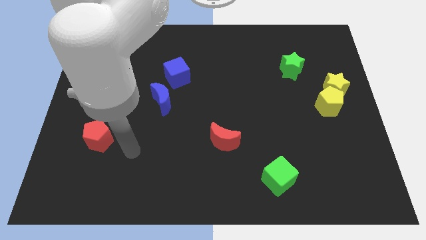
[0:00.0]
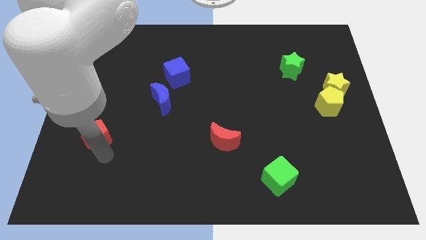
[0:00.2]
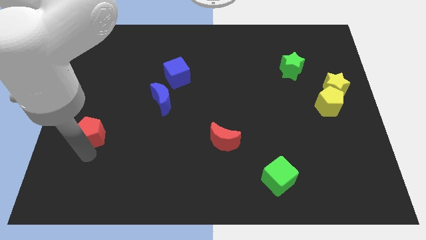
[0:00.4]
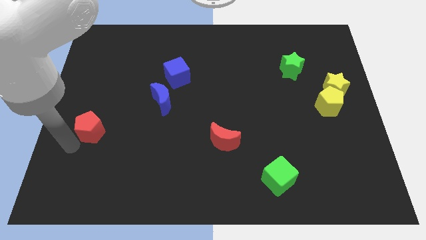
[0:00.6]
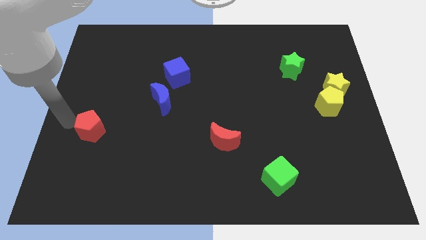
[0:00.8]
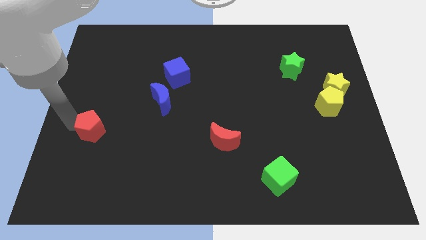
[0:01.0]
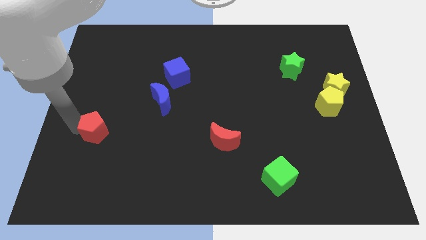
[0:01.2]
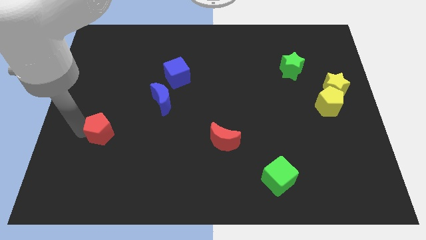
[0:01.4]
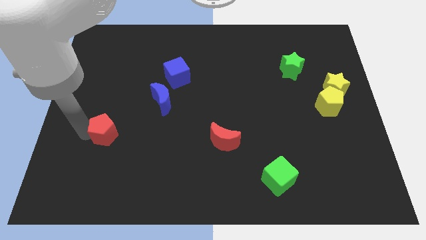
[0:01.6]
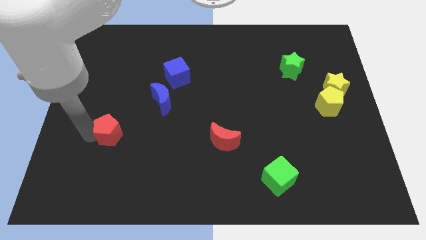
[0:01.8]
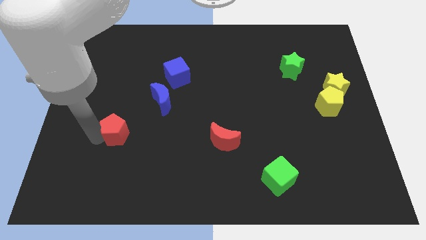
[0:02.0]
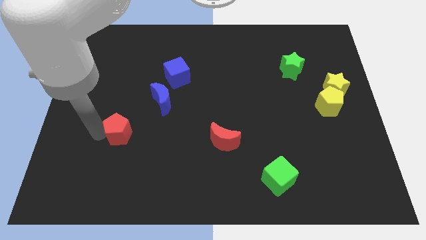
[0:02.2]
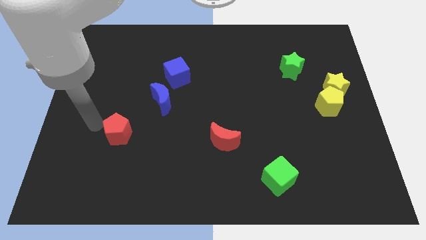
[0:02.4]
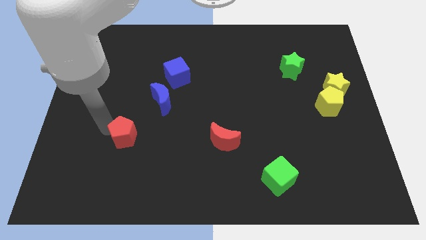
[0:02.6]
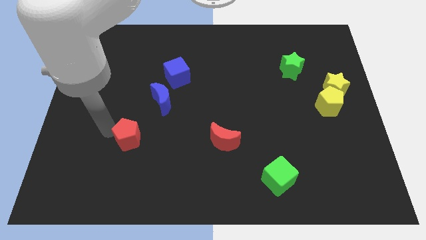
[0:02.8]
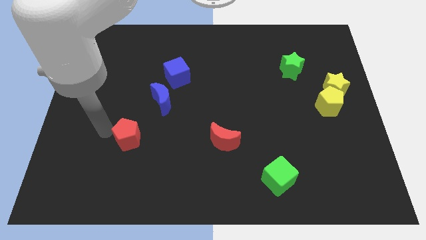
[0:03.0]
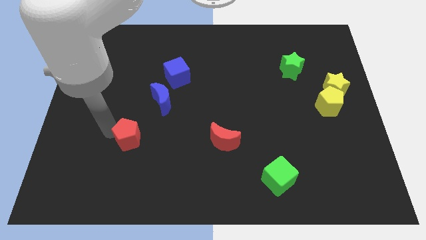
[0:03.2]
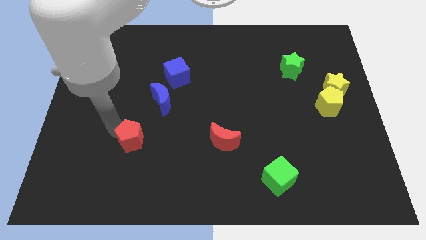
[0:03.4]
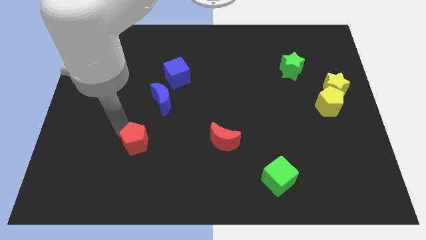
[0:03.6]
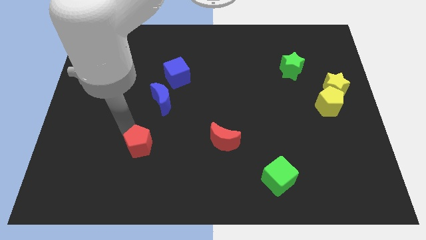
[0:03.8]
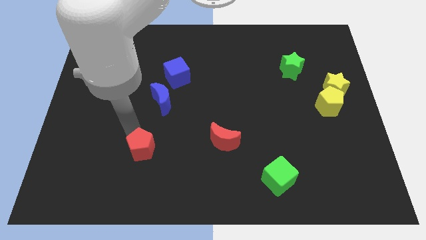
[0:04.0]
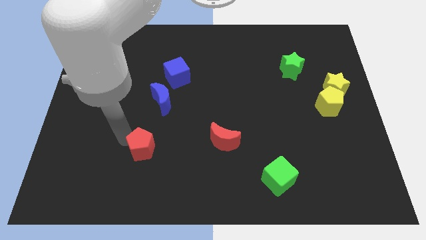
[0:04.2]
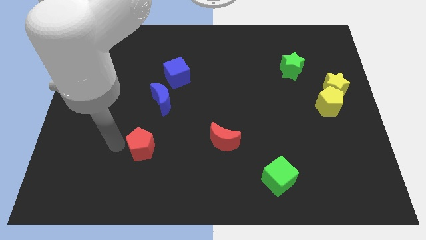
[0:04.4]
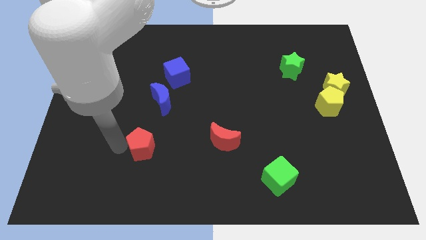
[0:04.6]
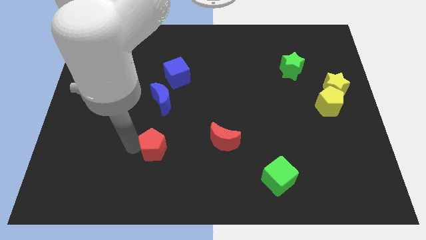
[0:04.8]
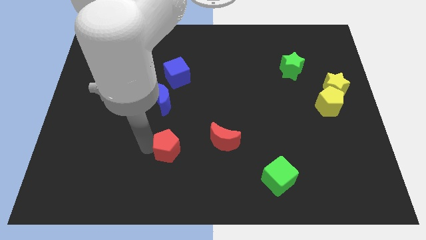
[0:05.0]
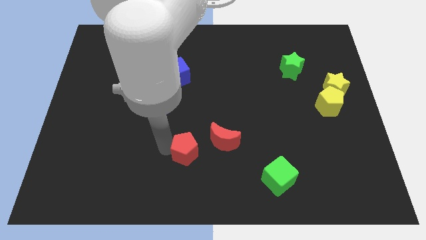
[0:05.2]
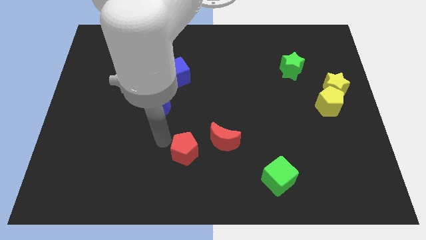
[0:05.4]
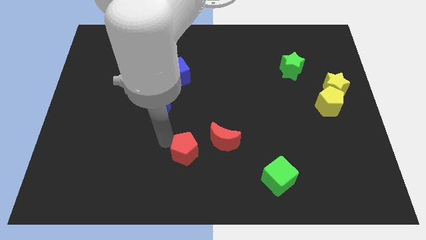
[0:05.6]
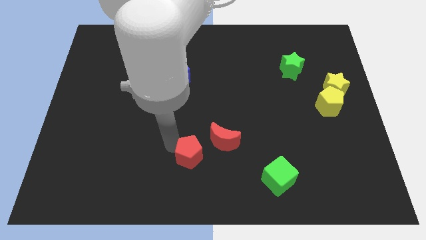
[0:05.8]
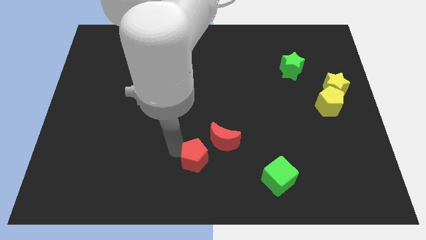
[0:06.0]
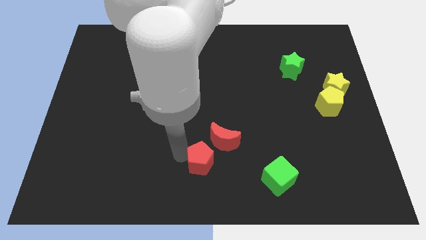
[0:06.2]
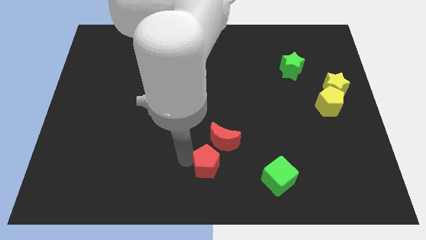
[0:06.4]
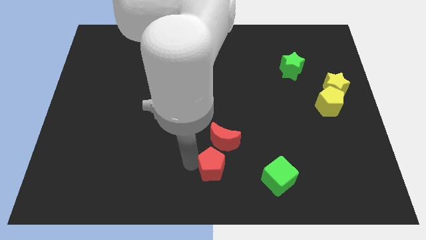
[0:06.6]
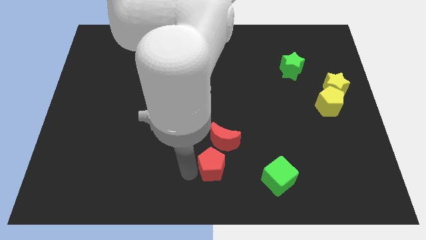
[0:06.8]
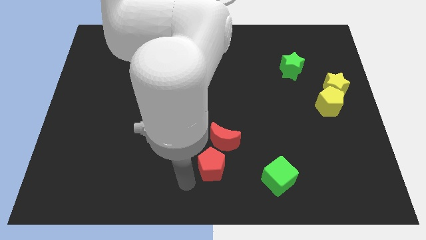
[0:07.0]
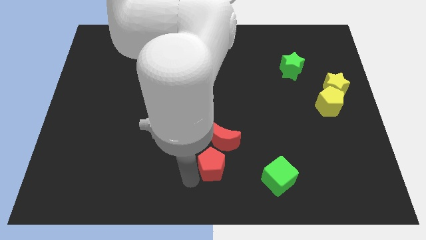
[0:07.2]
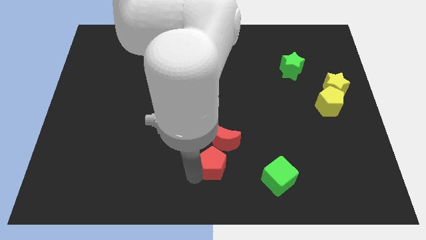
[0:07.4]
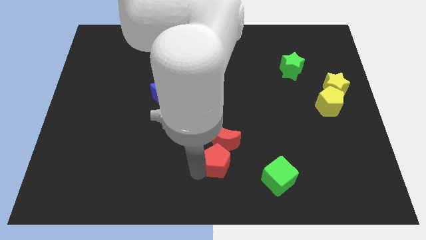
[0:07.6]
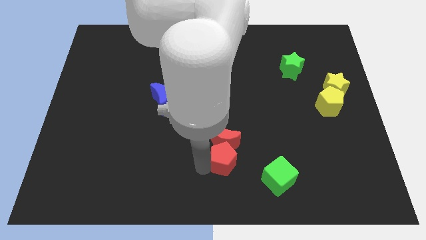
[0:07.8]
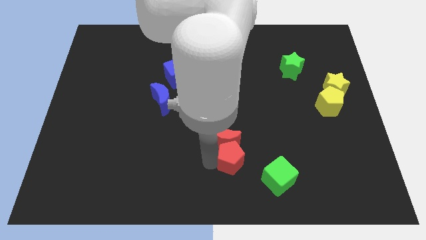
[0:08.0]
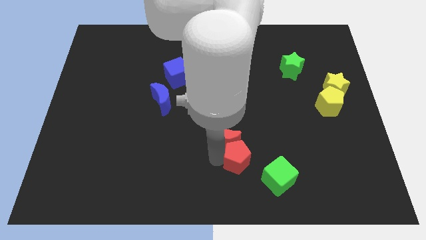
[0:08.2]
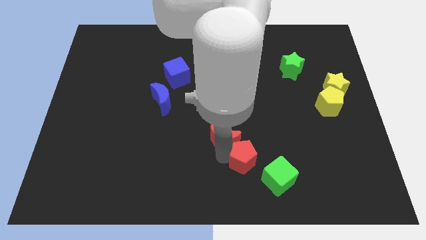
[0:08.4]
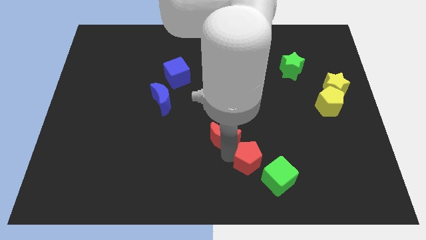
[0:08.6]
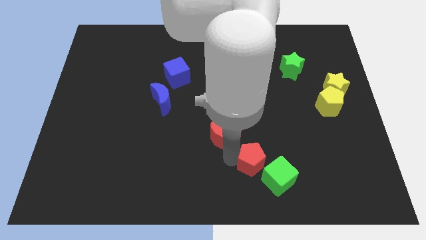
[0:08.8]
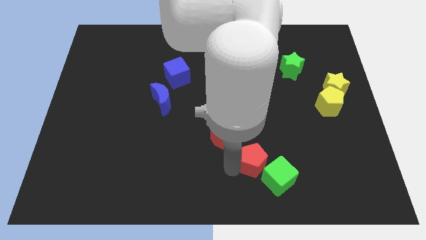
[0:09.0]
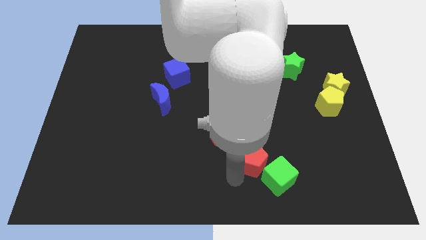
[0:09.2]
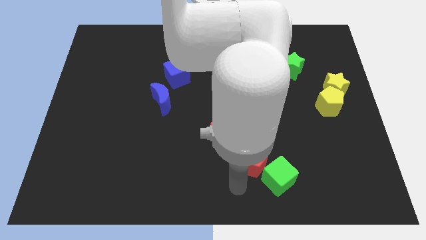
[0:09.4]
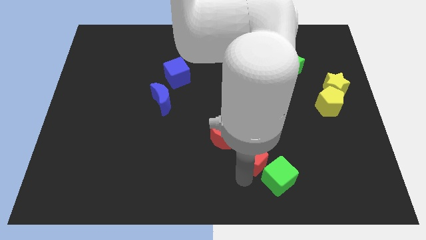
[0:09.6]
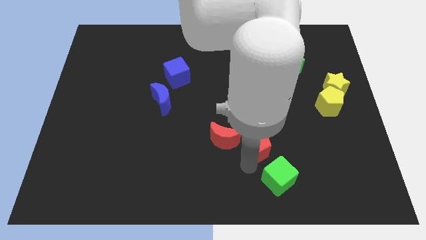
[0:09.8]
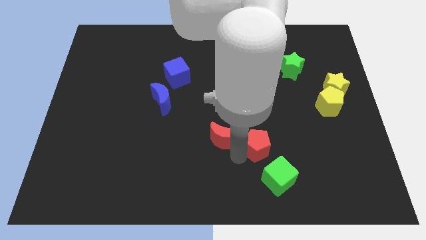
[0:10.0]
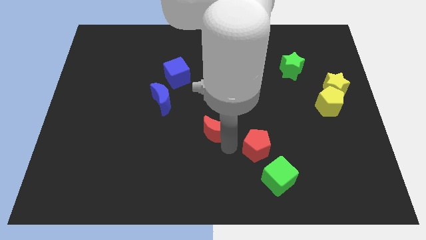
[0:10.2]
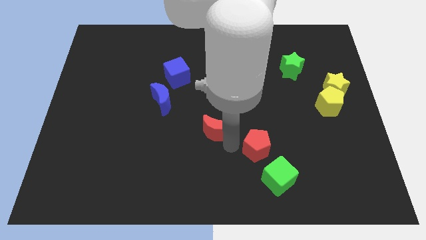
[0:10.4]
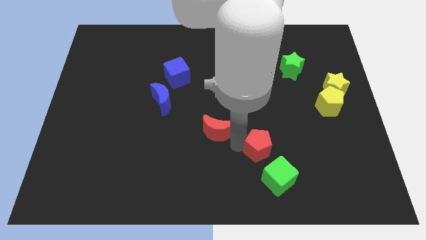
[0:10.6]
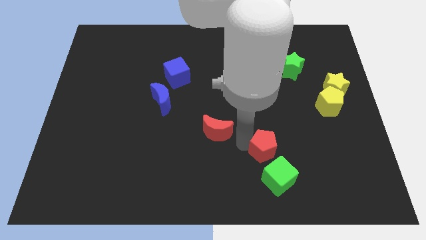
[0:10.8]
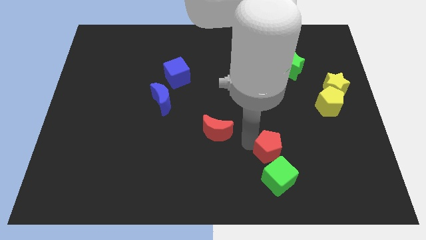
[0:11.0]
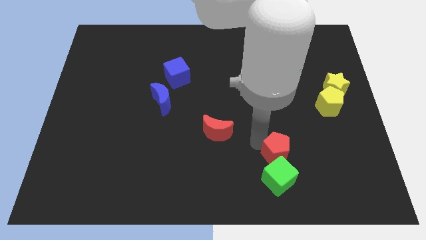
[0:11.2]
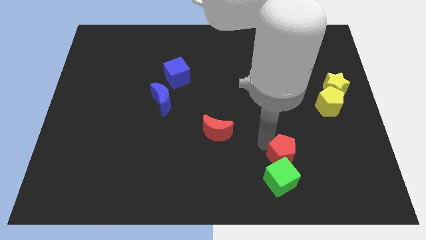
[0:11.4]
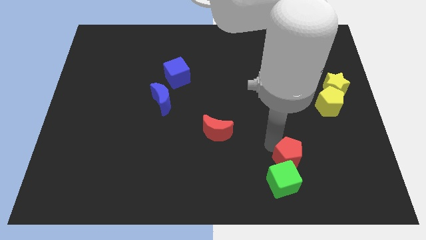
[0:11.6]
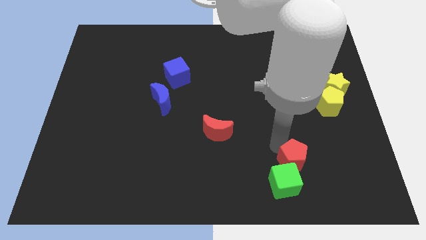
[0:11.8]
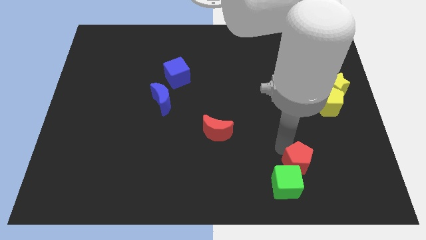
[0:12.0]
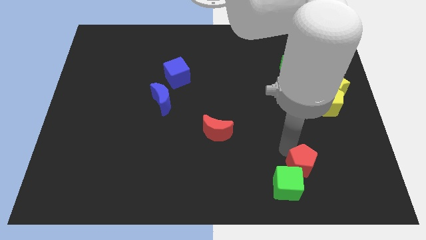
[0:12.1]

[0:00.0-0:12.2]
slide the red pentagon to the right of the green cube

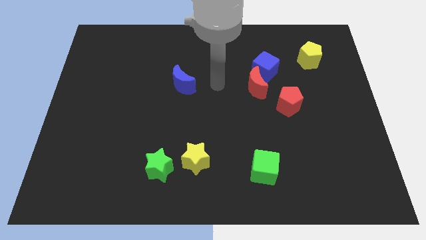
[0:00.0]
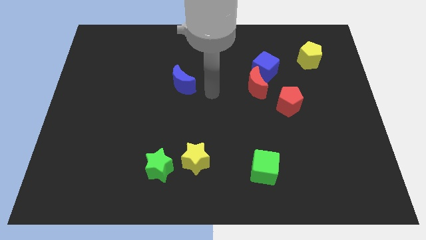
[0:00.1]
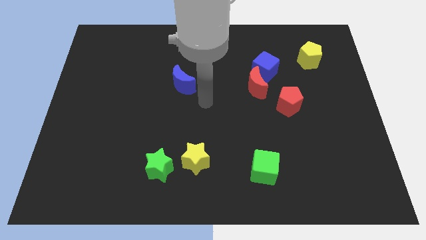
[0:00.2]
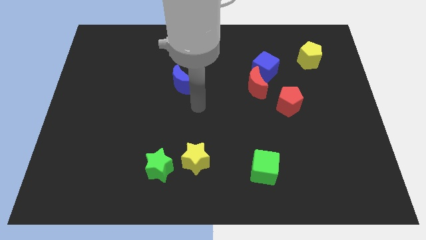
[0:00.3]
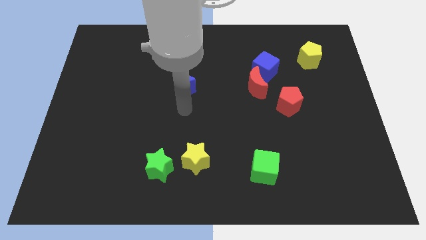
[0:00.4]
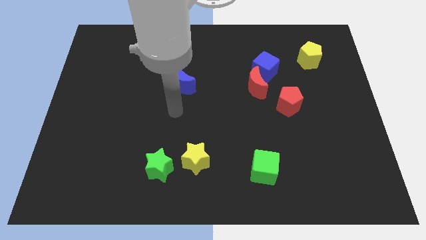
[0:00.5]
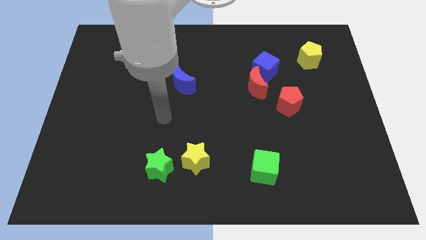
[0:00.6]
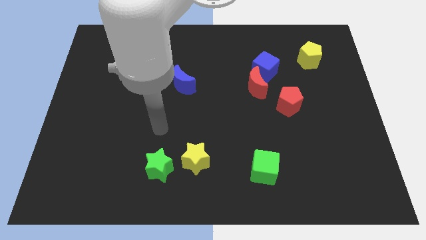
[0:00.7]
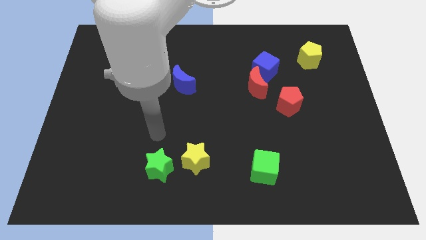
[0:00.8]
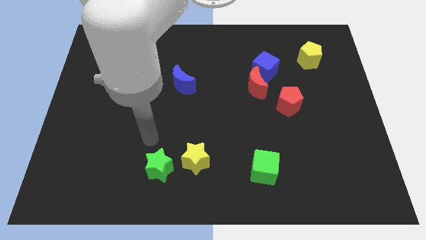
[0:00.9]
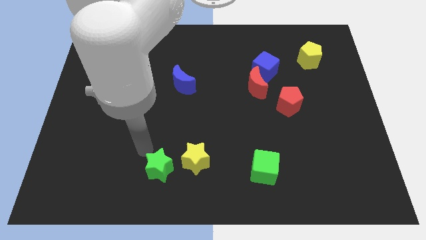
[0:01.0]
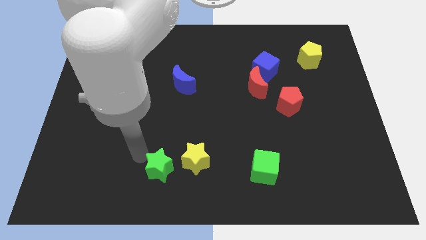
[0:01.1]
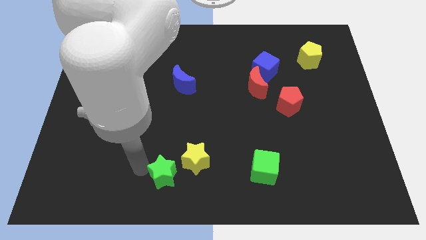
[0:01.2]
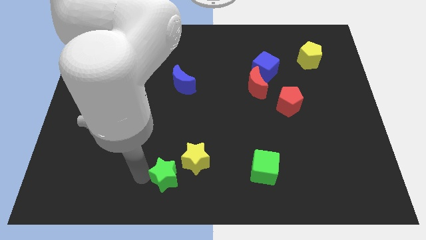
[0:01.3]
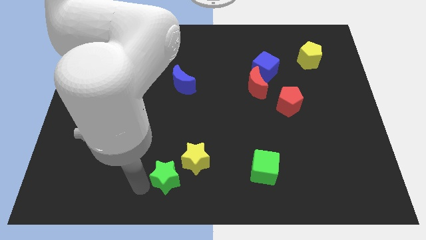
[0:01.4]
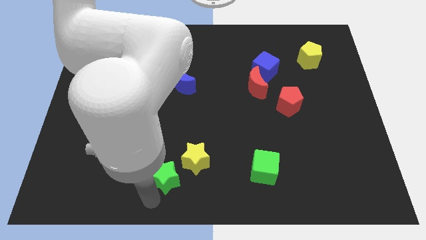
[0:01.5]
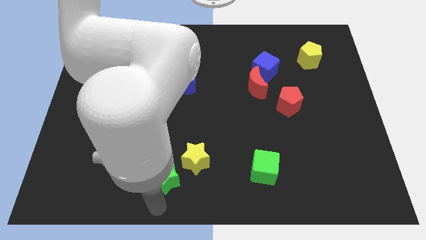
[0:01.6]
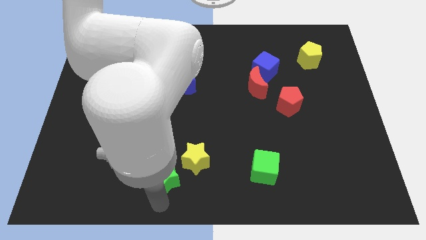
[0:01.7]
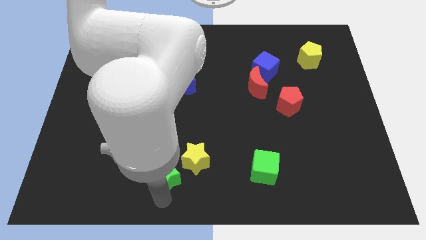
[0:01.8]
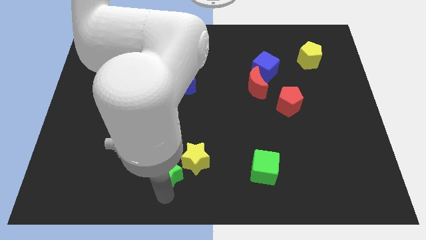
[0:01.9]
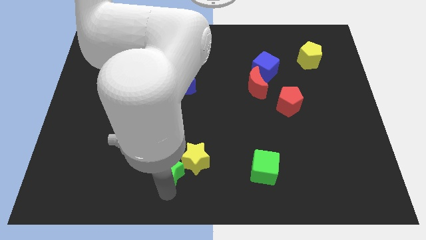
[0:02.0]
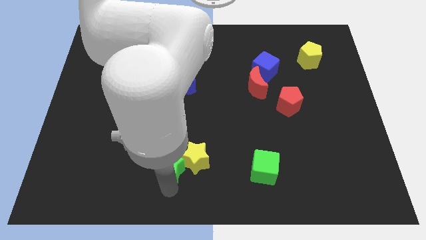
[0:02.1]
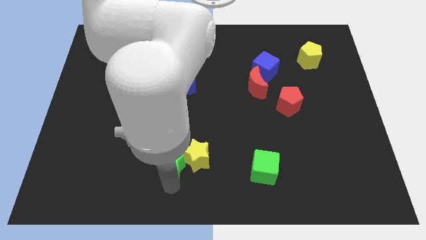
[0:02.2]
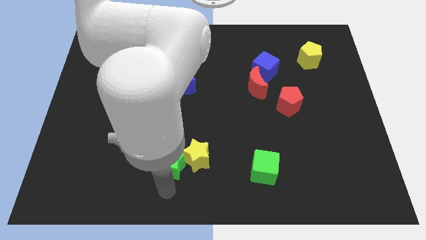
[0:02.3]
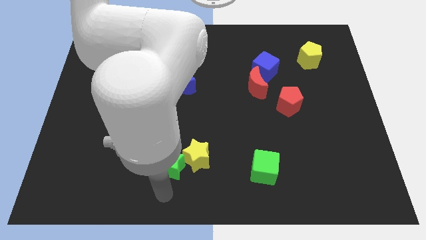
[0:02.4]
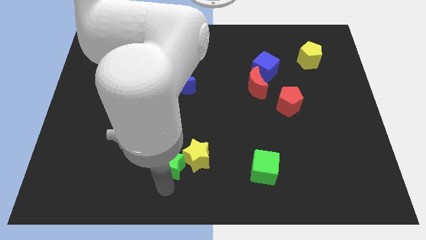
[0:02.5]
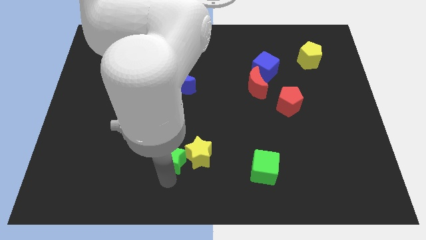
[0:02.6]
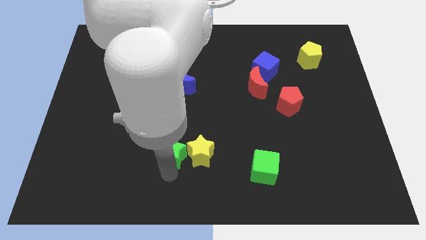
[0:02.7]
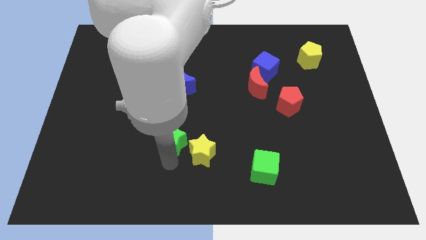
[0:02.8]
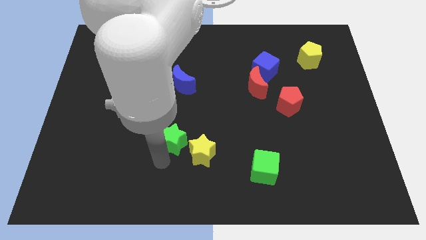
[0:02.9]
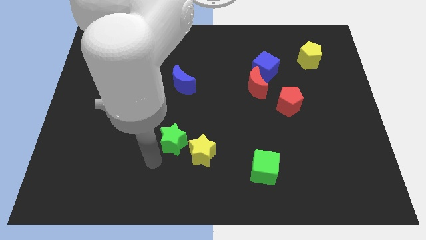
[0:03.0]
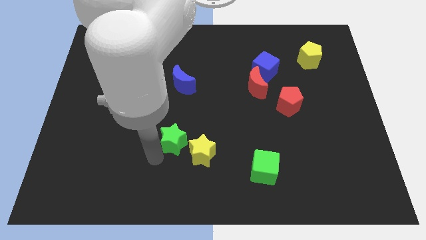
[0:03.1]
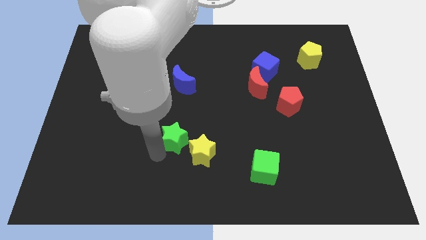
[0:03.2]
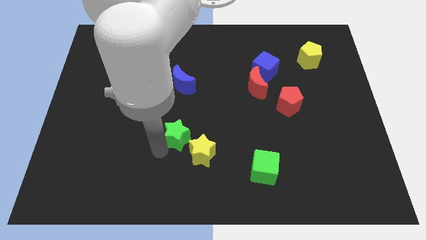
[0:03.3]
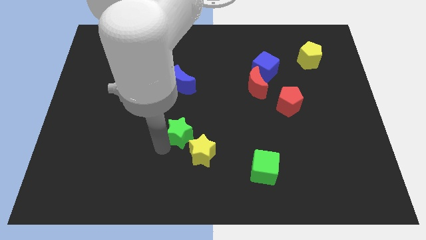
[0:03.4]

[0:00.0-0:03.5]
push the green star above the yellow star
